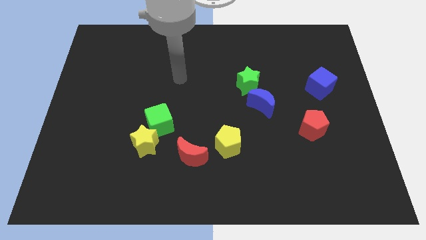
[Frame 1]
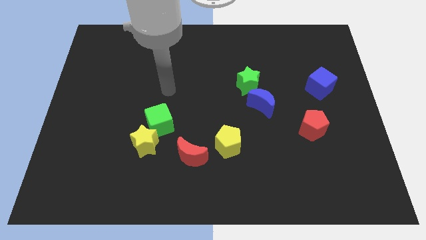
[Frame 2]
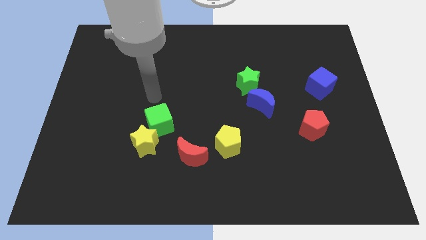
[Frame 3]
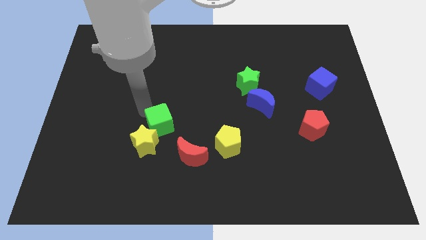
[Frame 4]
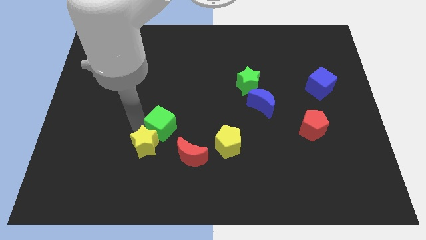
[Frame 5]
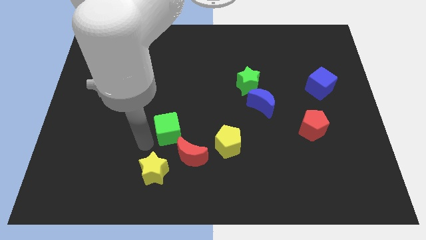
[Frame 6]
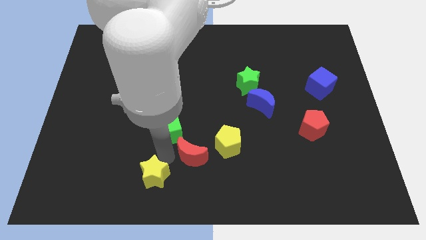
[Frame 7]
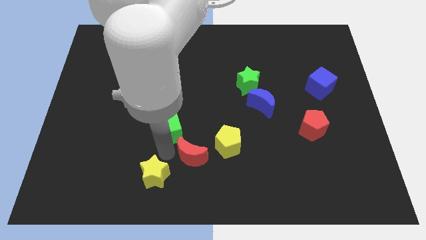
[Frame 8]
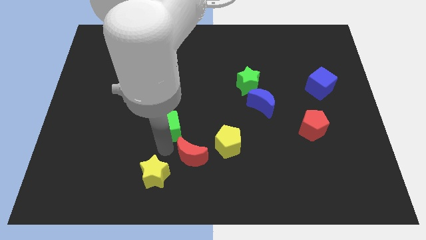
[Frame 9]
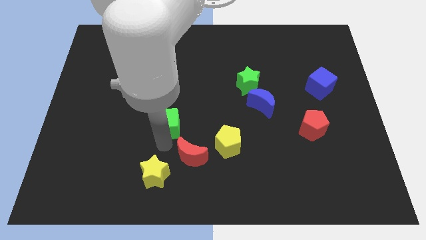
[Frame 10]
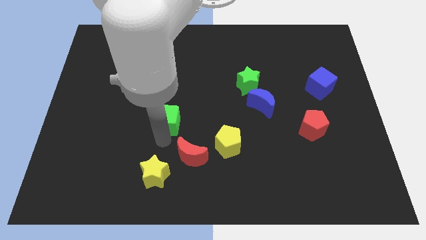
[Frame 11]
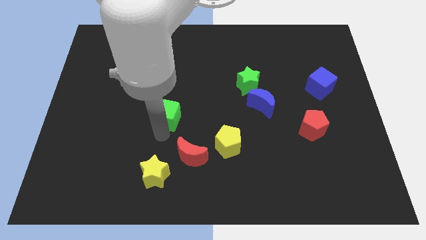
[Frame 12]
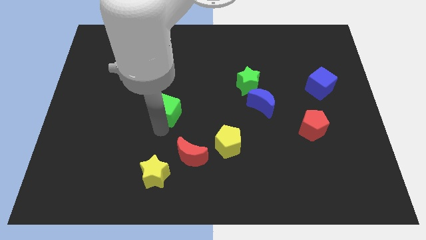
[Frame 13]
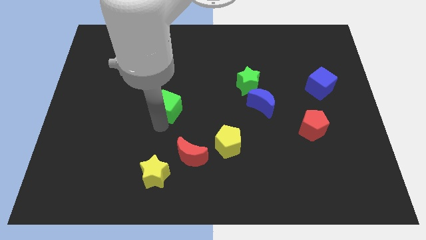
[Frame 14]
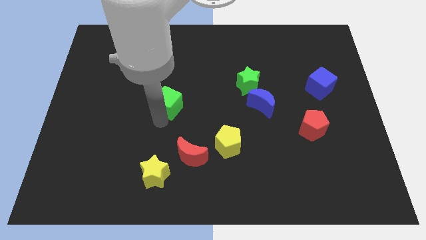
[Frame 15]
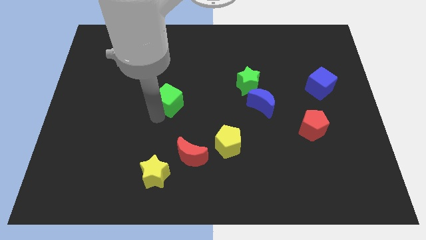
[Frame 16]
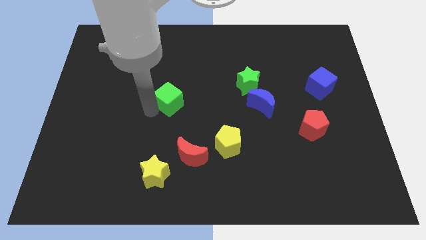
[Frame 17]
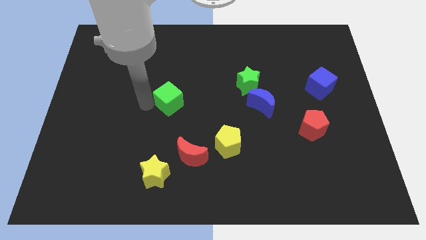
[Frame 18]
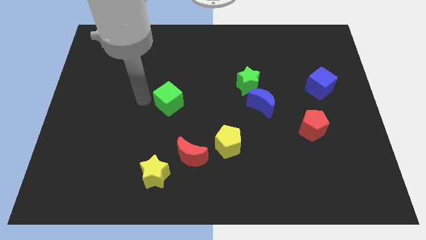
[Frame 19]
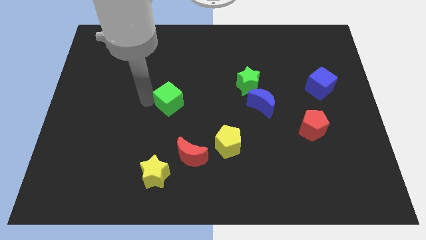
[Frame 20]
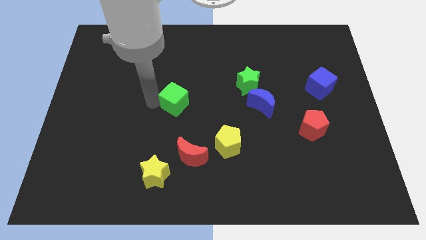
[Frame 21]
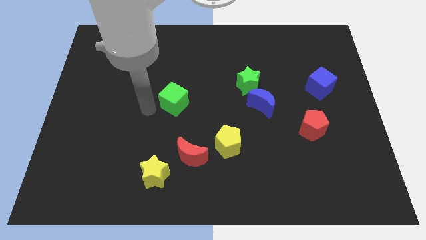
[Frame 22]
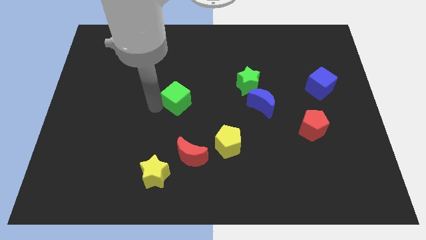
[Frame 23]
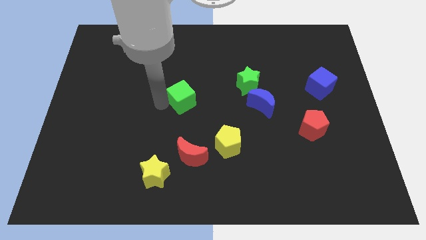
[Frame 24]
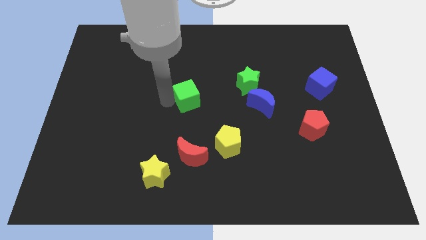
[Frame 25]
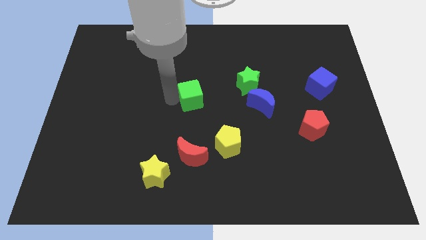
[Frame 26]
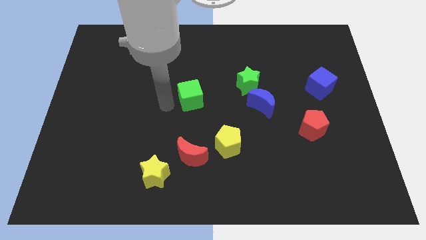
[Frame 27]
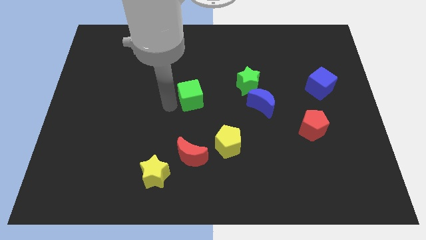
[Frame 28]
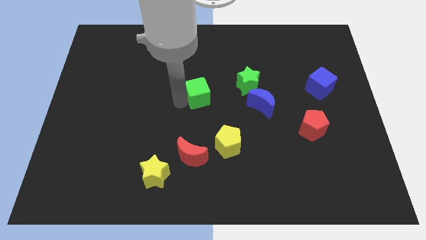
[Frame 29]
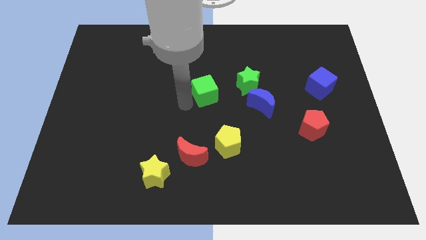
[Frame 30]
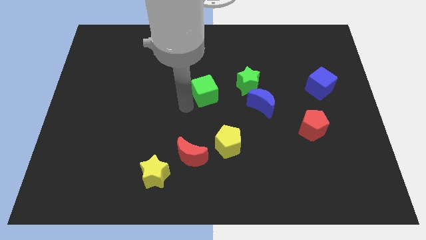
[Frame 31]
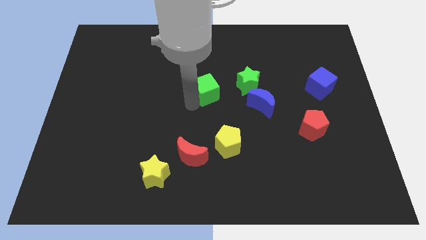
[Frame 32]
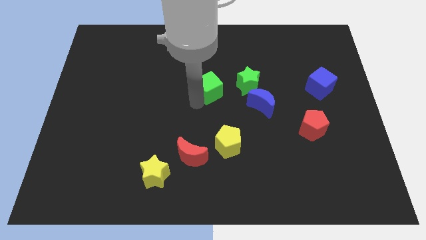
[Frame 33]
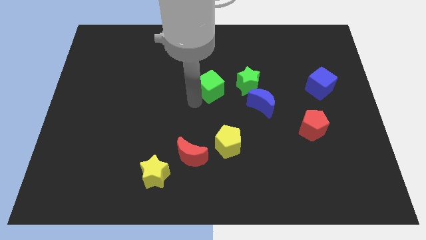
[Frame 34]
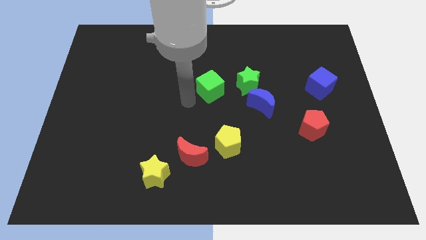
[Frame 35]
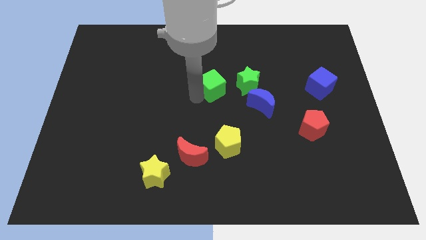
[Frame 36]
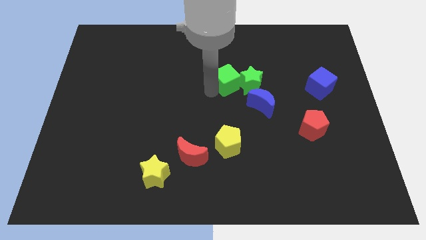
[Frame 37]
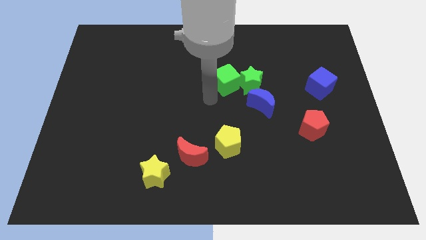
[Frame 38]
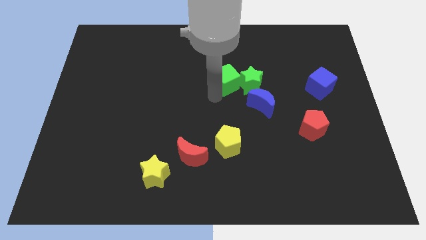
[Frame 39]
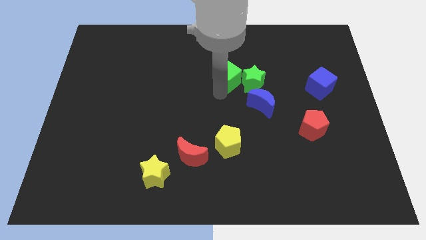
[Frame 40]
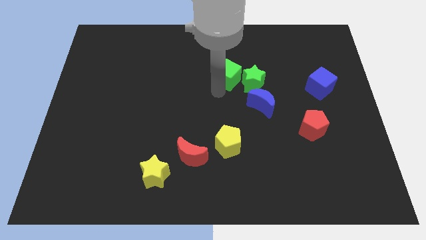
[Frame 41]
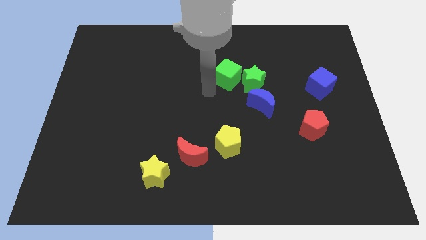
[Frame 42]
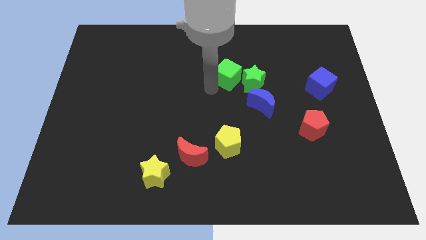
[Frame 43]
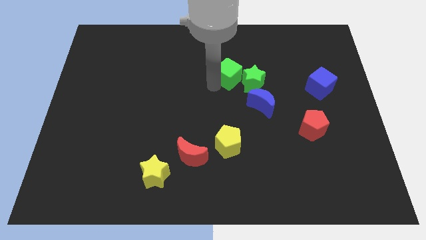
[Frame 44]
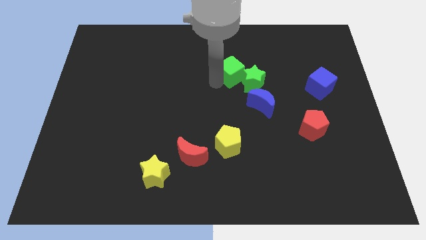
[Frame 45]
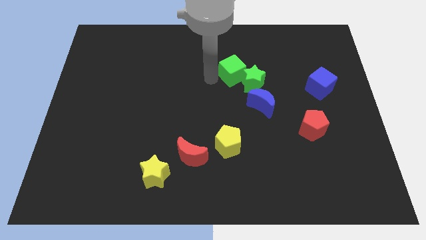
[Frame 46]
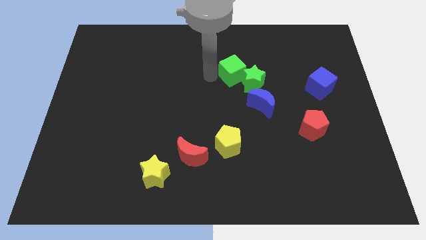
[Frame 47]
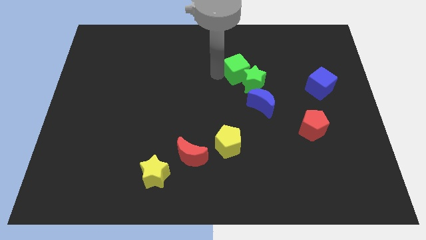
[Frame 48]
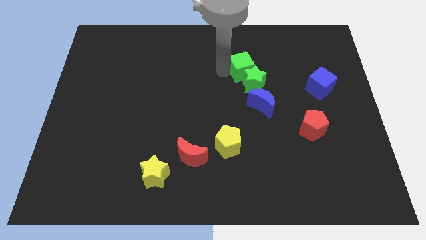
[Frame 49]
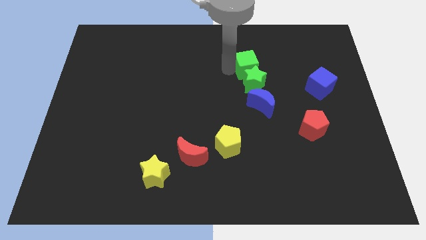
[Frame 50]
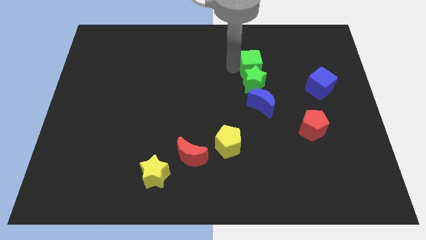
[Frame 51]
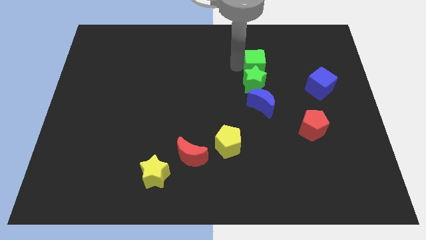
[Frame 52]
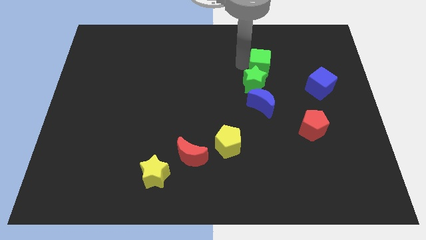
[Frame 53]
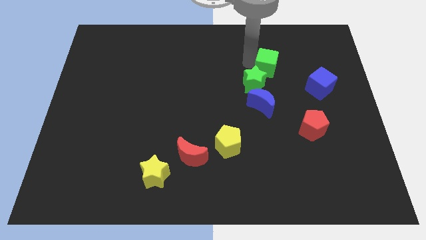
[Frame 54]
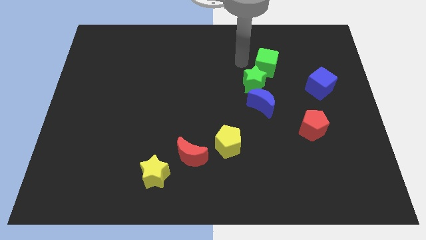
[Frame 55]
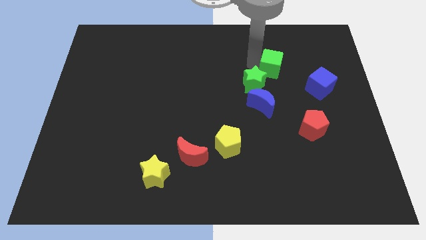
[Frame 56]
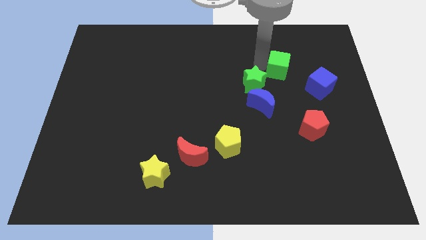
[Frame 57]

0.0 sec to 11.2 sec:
push the green cube to the top left of the blue cube

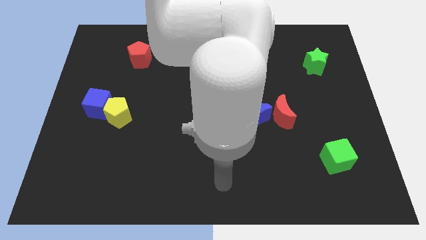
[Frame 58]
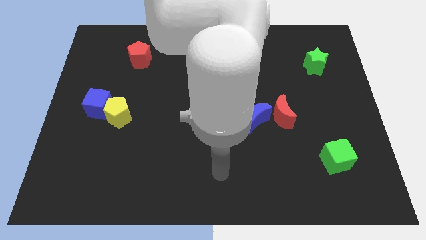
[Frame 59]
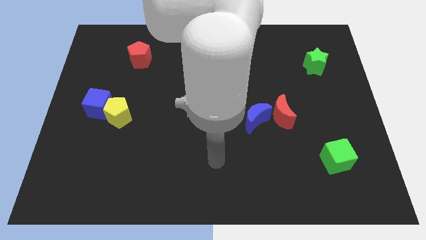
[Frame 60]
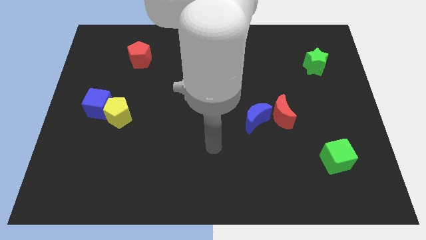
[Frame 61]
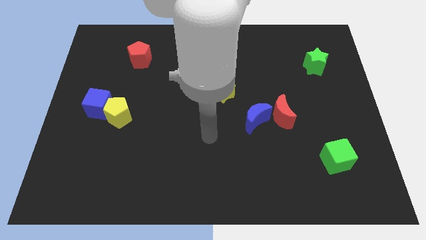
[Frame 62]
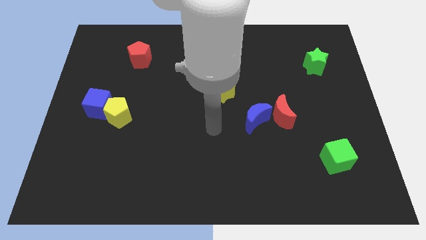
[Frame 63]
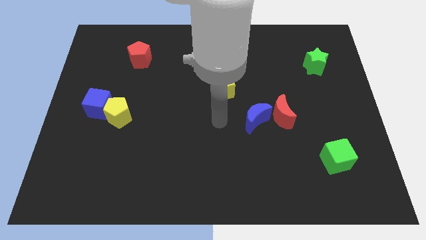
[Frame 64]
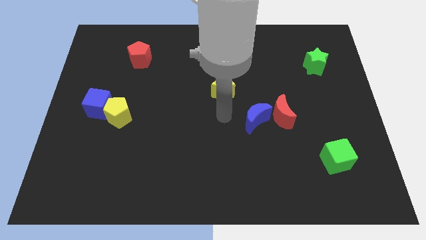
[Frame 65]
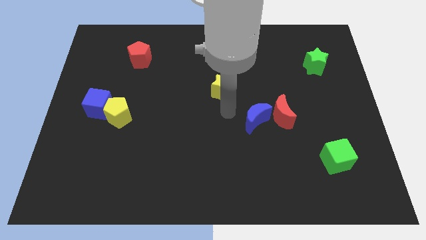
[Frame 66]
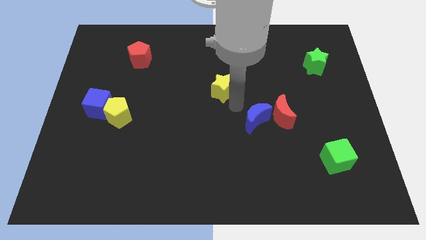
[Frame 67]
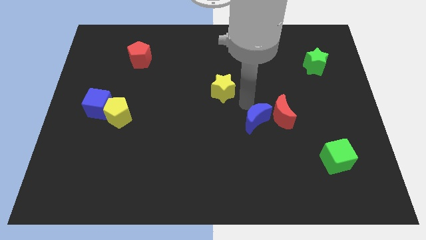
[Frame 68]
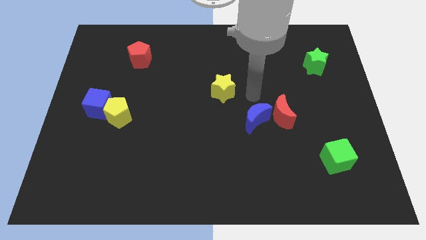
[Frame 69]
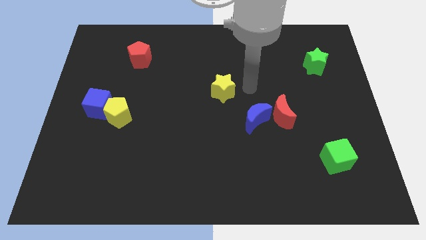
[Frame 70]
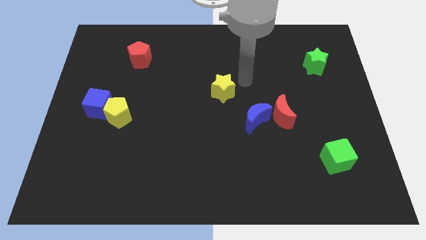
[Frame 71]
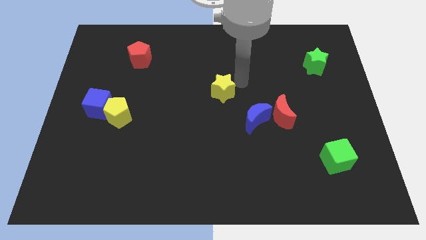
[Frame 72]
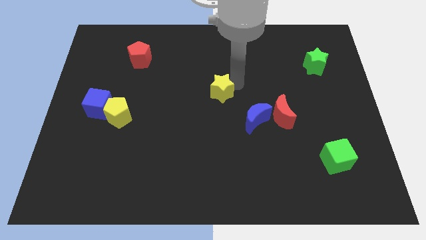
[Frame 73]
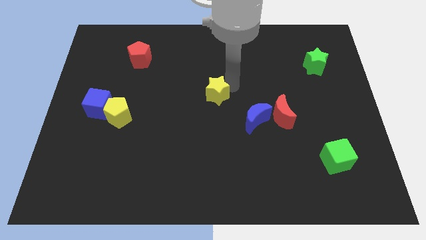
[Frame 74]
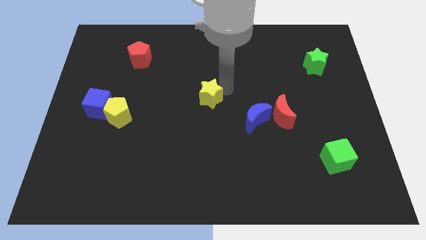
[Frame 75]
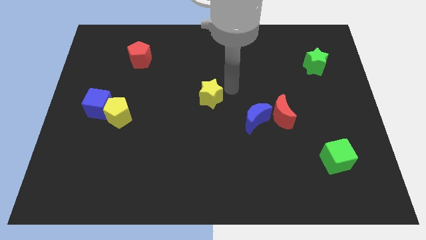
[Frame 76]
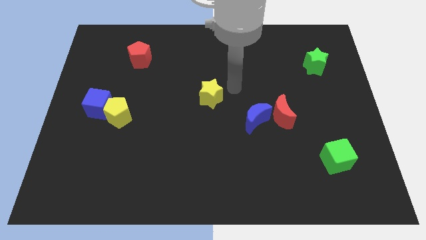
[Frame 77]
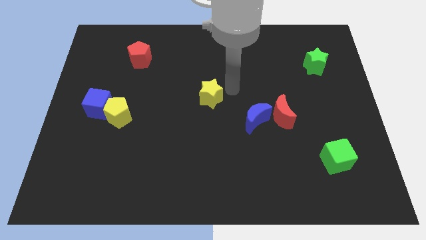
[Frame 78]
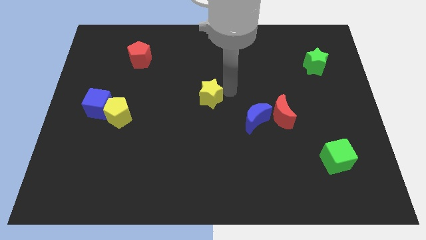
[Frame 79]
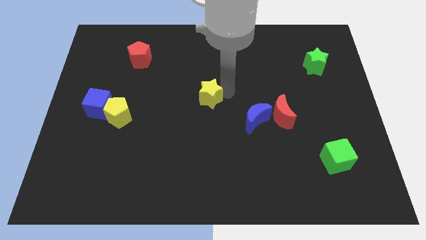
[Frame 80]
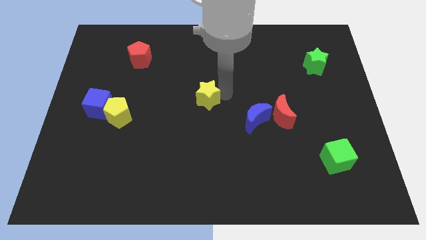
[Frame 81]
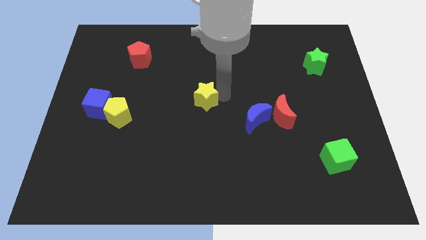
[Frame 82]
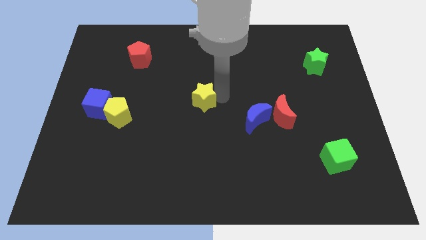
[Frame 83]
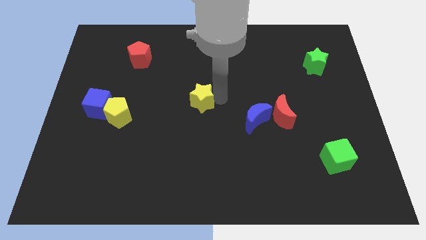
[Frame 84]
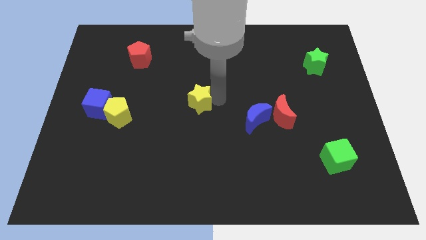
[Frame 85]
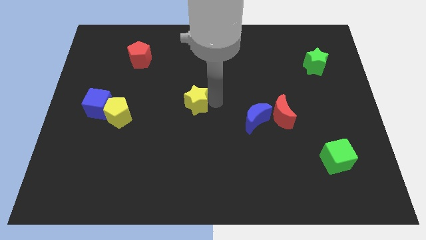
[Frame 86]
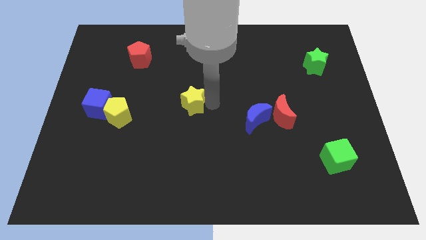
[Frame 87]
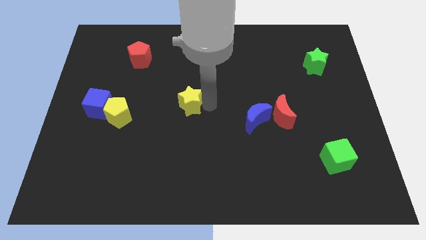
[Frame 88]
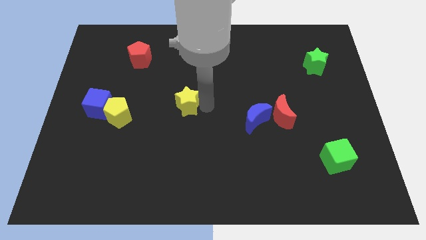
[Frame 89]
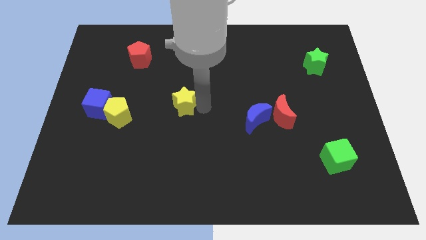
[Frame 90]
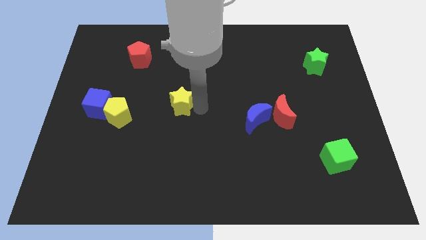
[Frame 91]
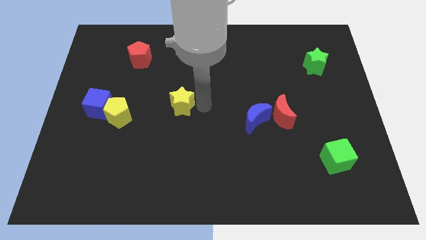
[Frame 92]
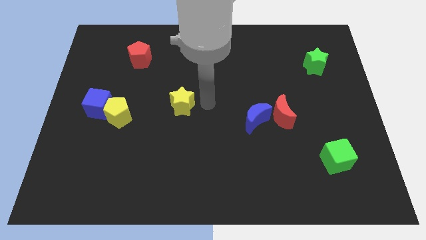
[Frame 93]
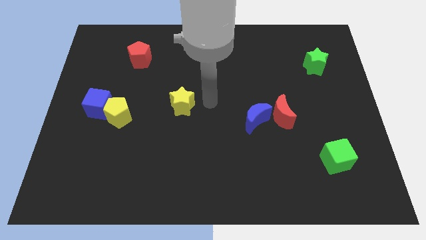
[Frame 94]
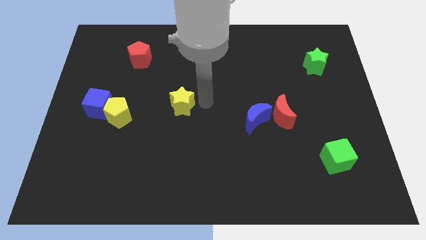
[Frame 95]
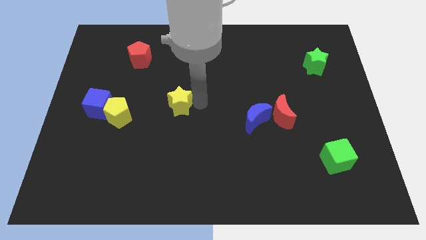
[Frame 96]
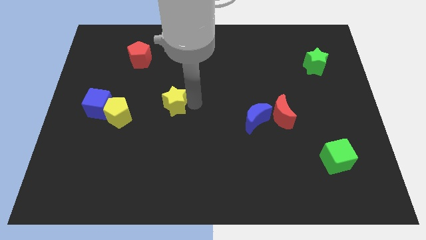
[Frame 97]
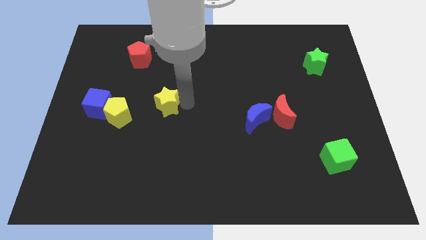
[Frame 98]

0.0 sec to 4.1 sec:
move the yellow star to the right side of the blue cube
